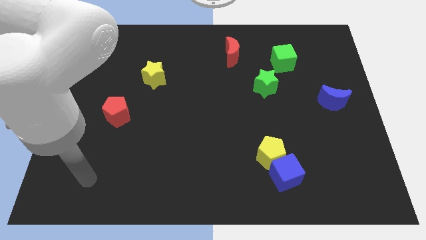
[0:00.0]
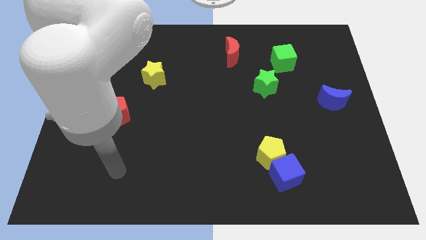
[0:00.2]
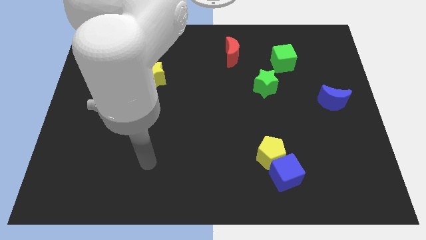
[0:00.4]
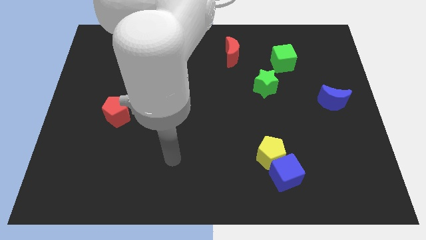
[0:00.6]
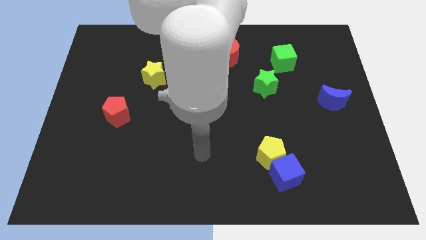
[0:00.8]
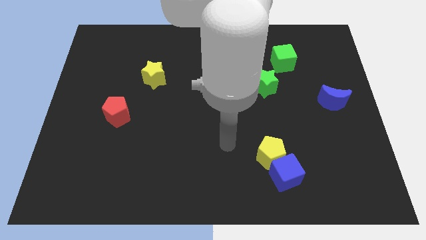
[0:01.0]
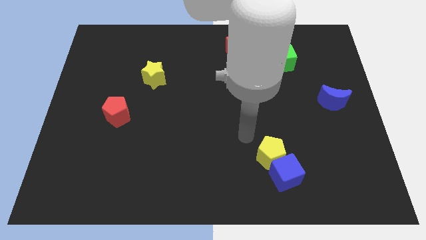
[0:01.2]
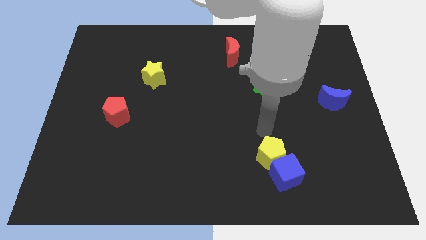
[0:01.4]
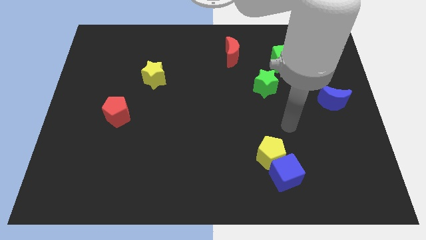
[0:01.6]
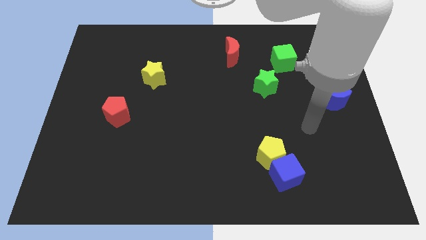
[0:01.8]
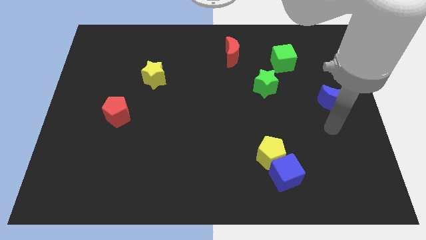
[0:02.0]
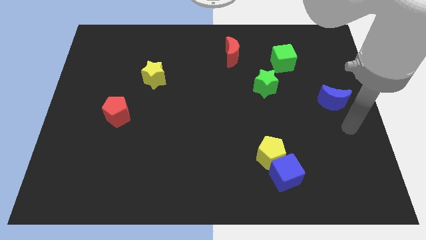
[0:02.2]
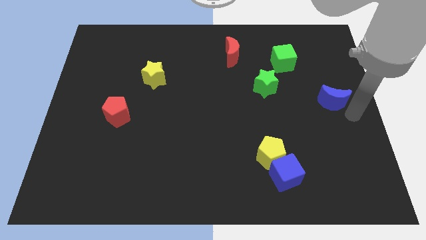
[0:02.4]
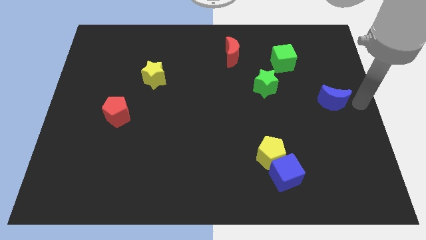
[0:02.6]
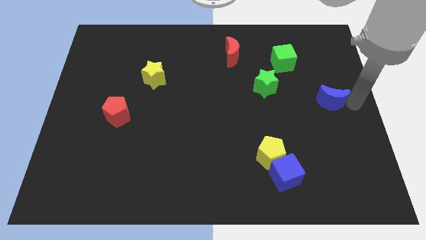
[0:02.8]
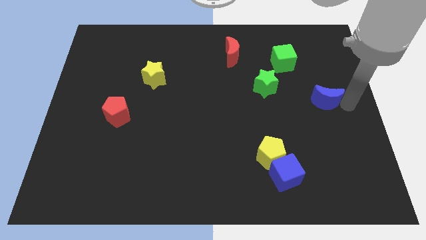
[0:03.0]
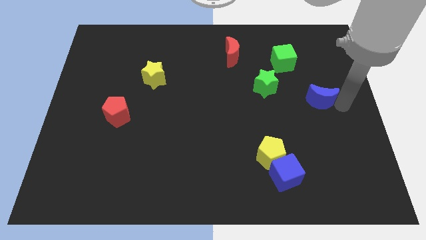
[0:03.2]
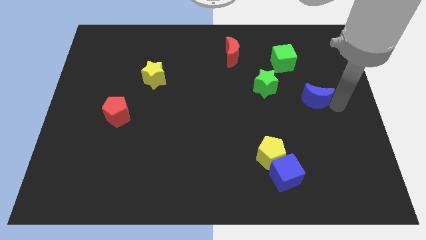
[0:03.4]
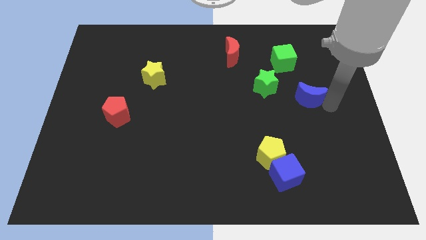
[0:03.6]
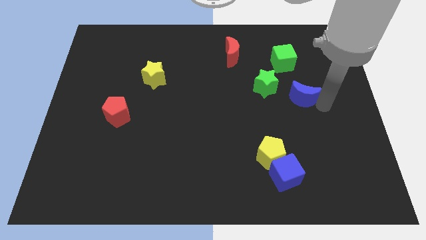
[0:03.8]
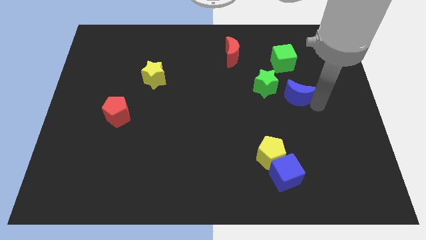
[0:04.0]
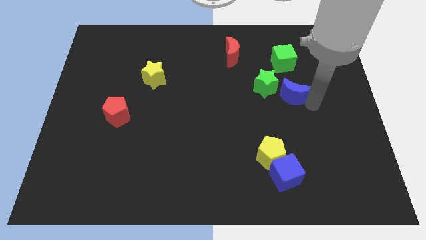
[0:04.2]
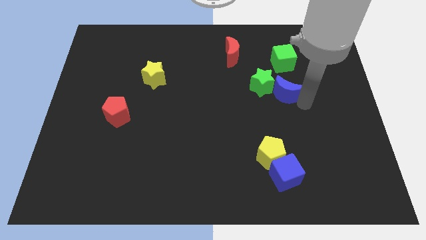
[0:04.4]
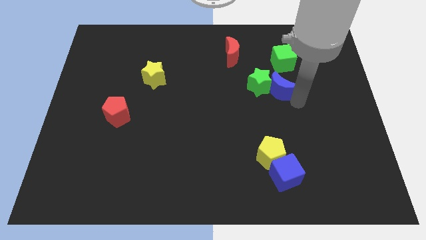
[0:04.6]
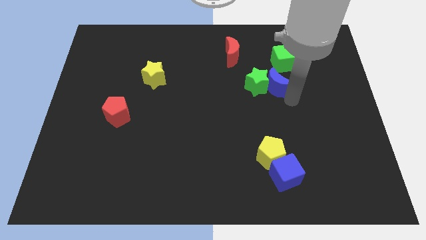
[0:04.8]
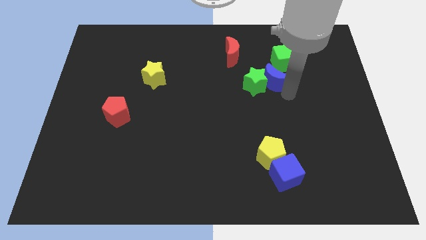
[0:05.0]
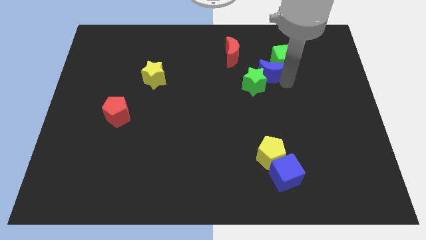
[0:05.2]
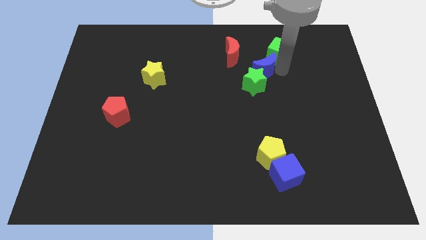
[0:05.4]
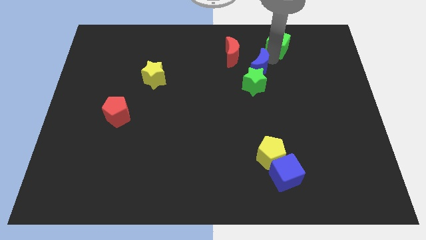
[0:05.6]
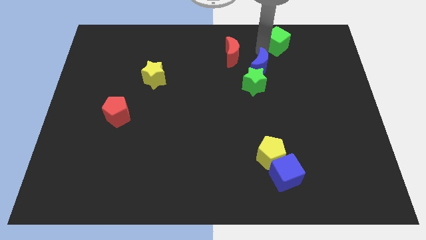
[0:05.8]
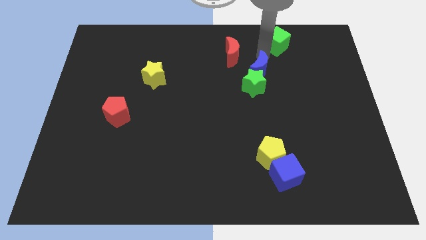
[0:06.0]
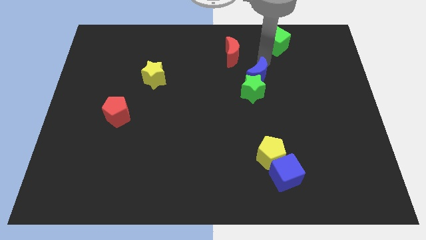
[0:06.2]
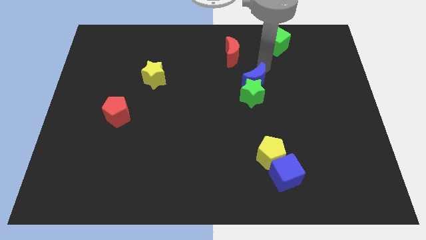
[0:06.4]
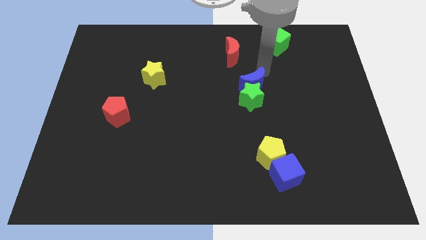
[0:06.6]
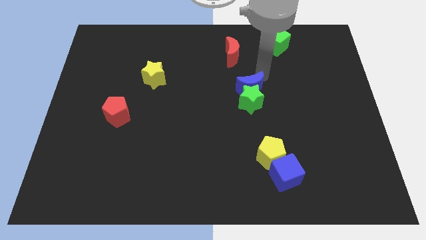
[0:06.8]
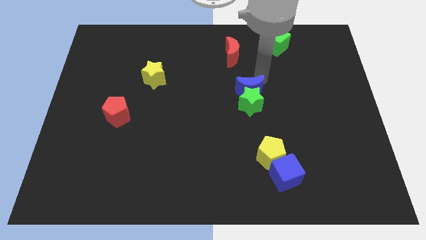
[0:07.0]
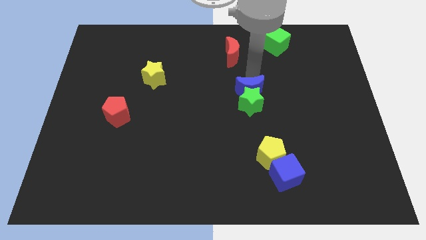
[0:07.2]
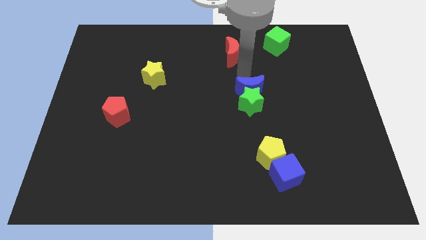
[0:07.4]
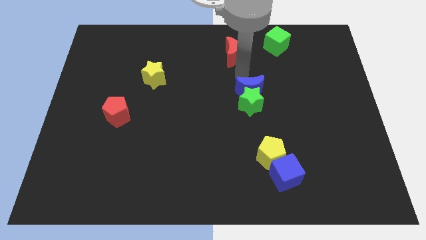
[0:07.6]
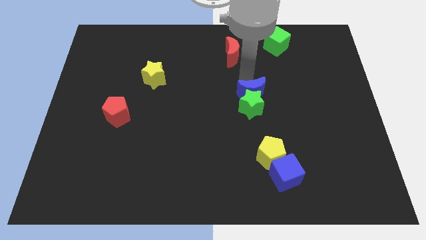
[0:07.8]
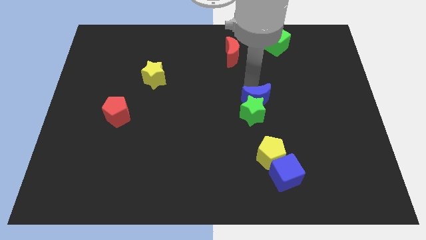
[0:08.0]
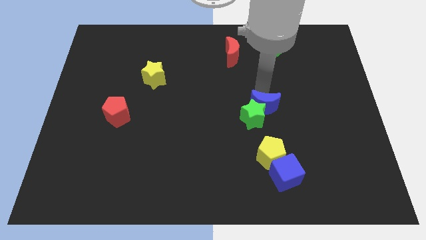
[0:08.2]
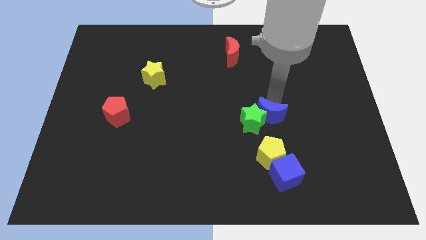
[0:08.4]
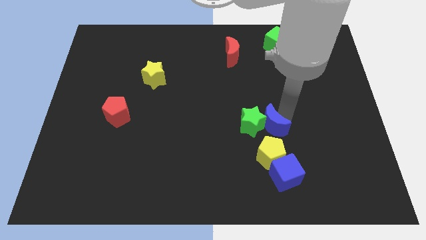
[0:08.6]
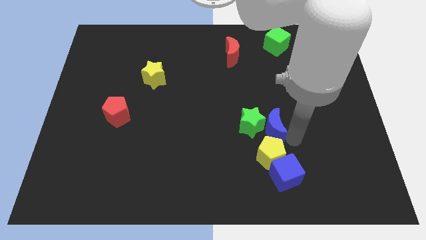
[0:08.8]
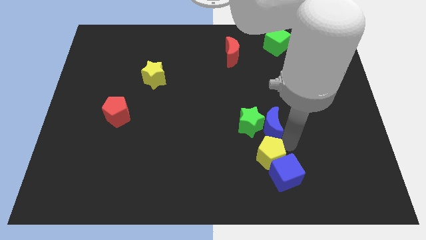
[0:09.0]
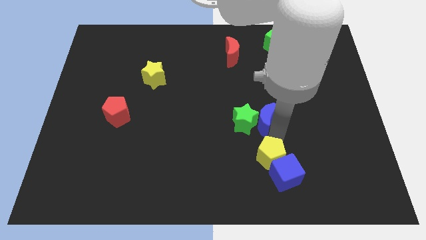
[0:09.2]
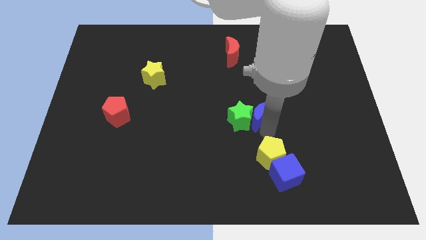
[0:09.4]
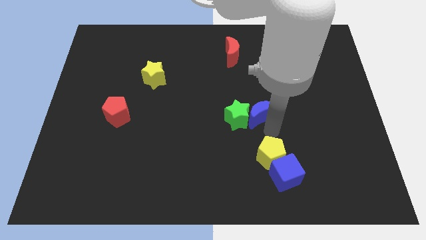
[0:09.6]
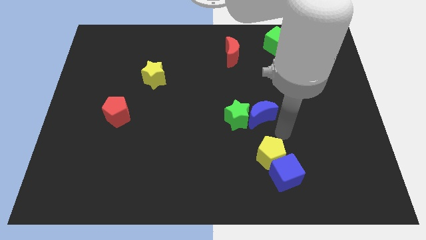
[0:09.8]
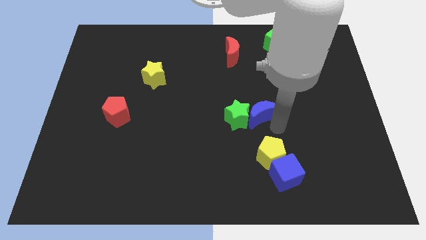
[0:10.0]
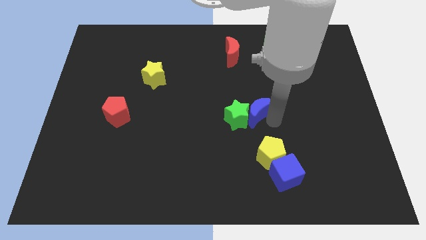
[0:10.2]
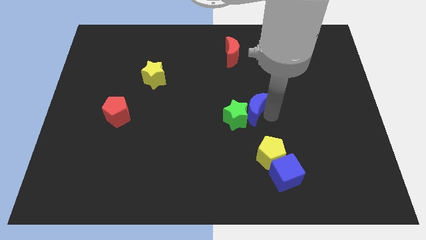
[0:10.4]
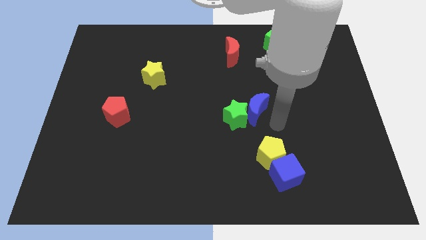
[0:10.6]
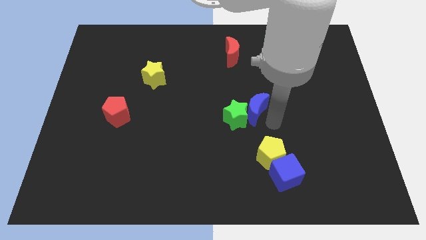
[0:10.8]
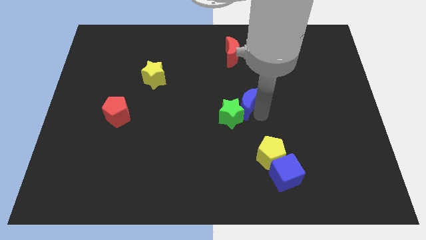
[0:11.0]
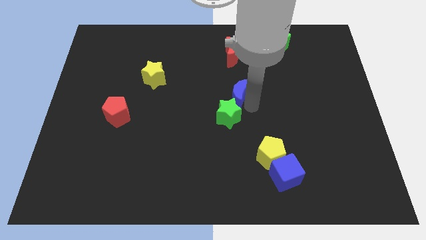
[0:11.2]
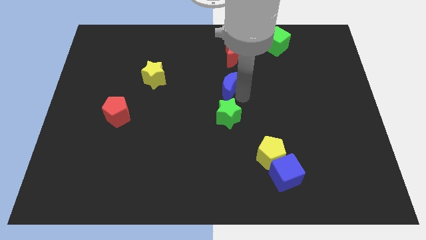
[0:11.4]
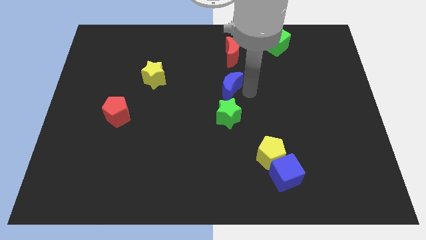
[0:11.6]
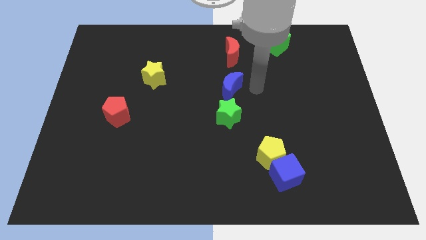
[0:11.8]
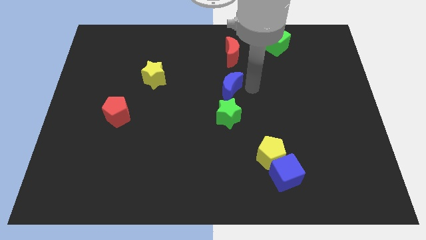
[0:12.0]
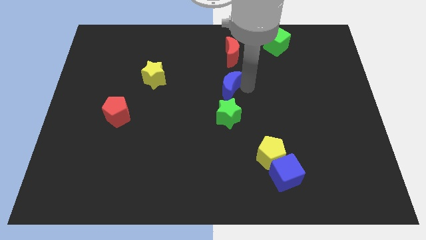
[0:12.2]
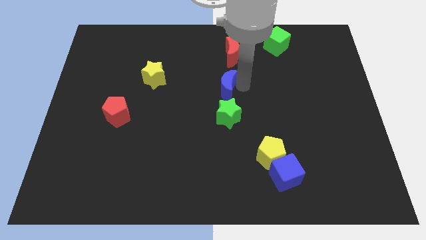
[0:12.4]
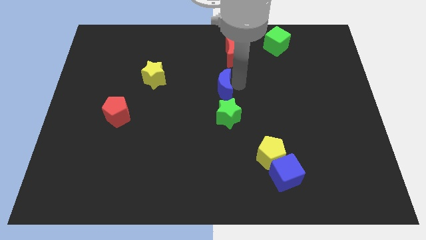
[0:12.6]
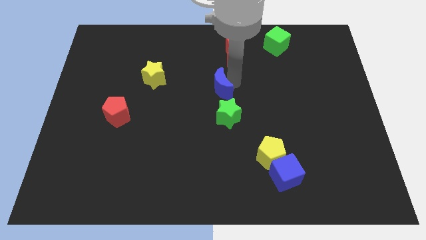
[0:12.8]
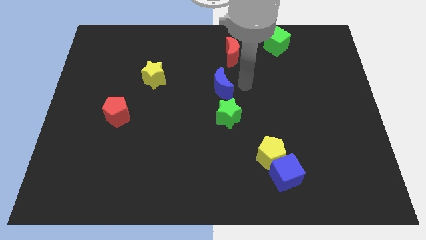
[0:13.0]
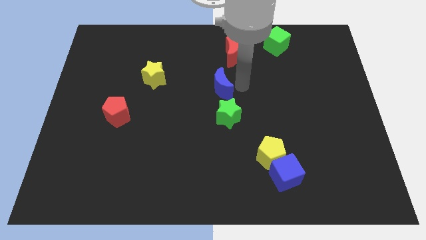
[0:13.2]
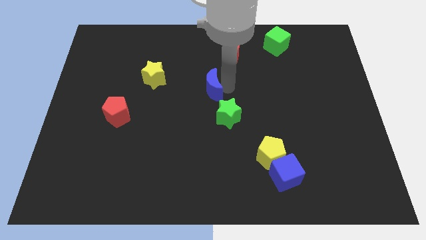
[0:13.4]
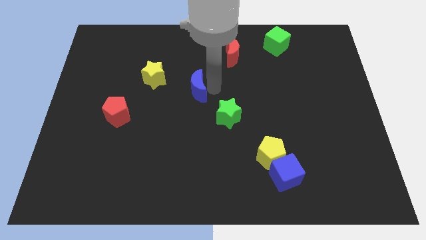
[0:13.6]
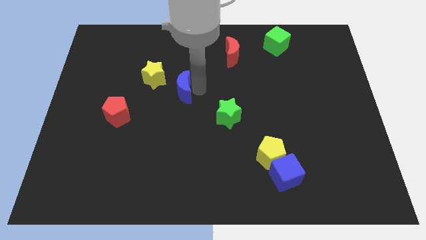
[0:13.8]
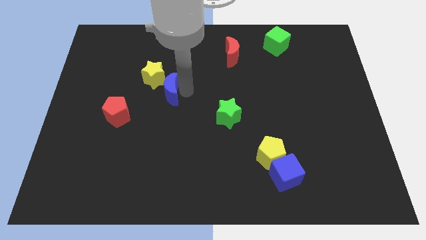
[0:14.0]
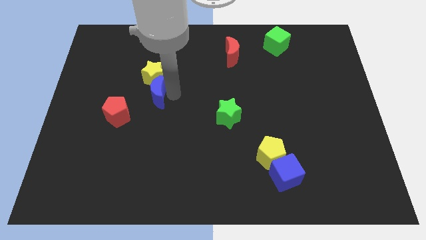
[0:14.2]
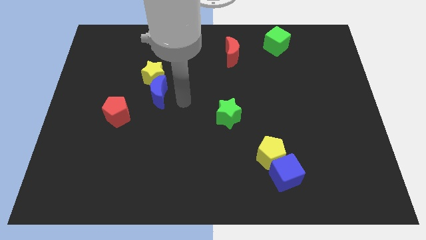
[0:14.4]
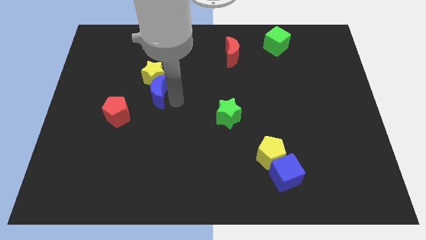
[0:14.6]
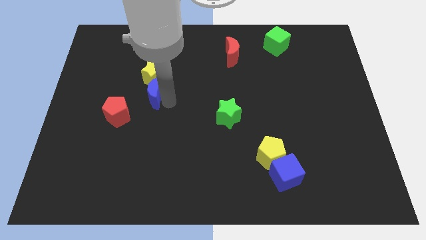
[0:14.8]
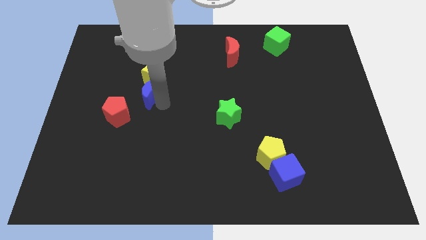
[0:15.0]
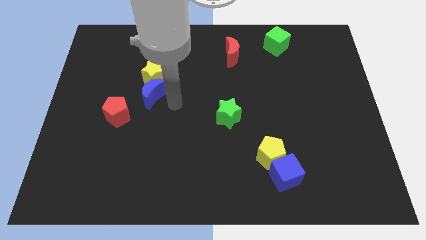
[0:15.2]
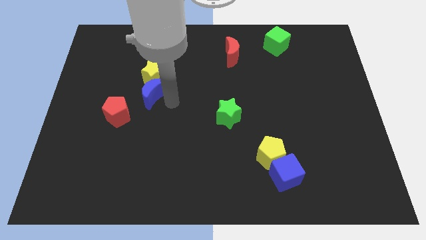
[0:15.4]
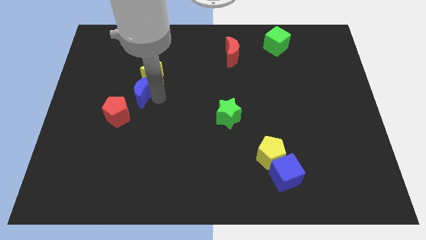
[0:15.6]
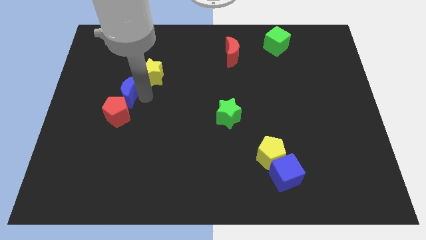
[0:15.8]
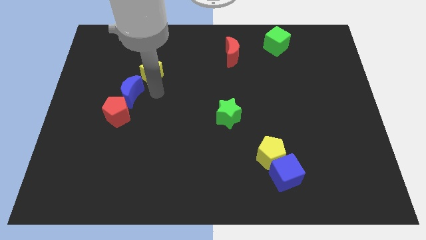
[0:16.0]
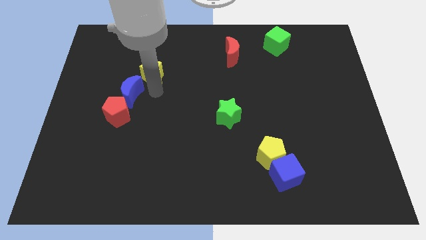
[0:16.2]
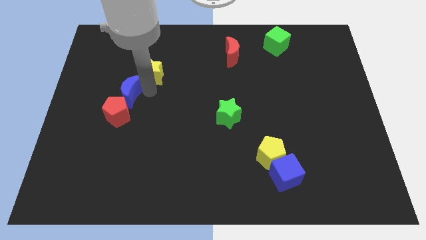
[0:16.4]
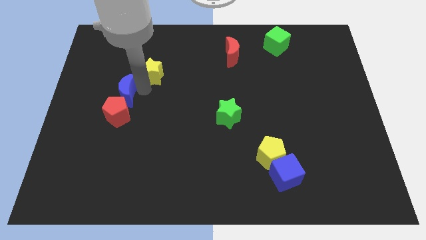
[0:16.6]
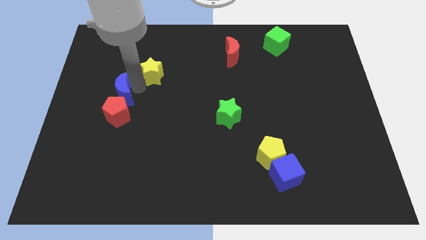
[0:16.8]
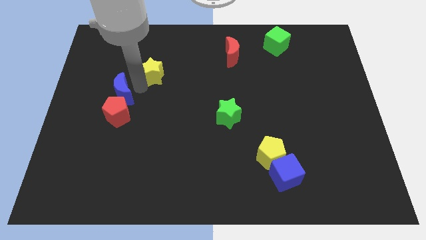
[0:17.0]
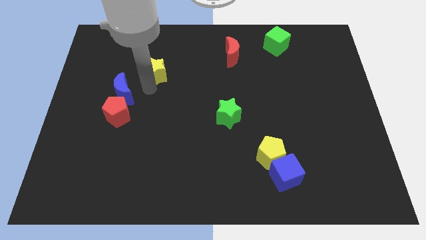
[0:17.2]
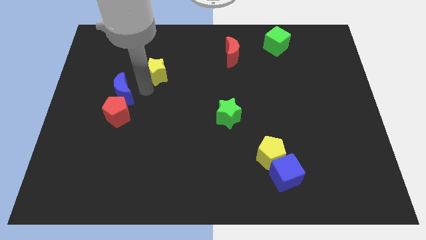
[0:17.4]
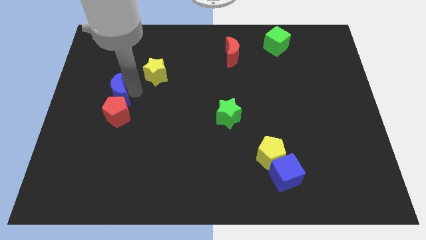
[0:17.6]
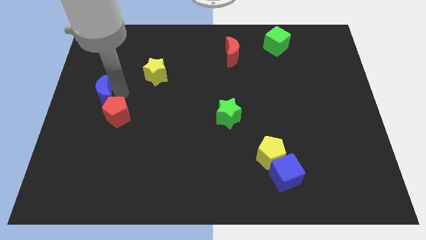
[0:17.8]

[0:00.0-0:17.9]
move the blue moon to the left side
